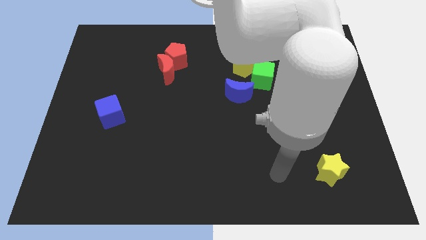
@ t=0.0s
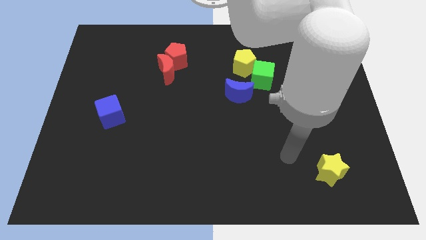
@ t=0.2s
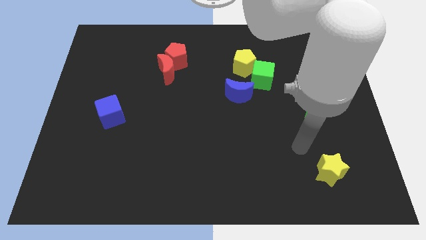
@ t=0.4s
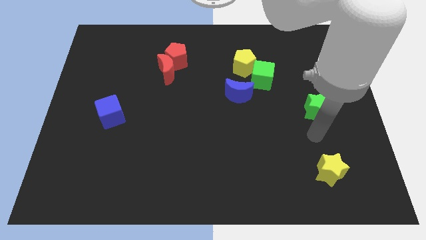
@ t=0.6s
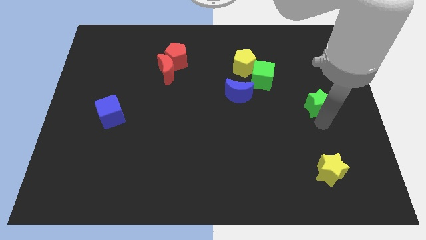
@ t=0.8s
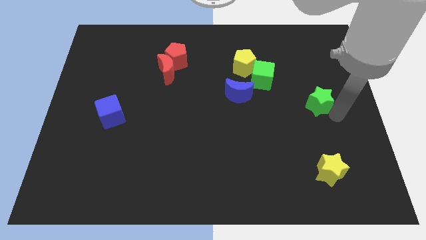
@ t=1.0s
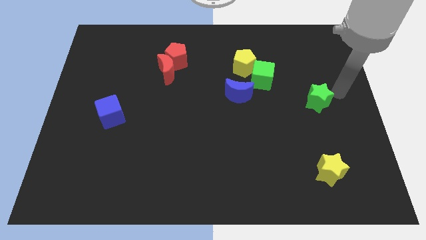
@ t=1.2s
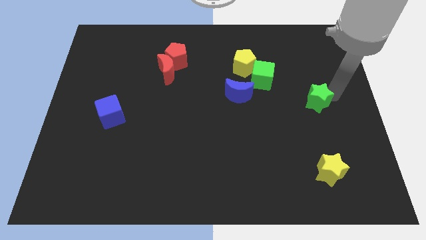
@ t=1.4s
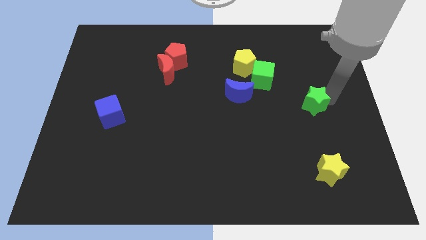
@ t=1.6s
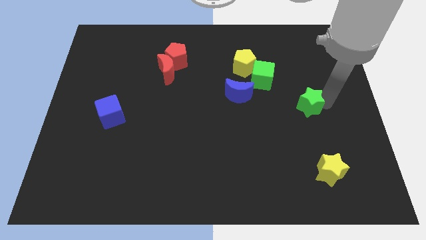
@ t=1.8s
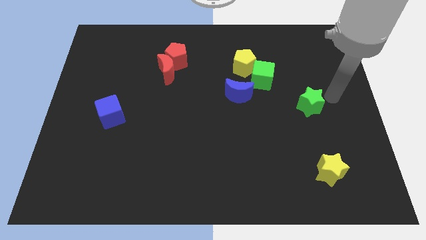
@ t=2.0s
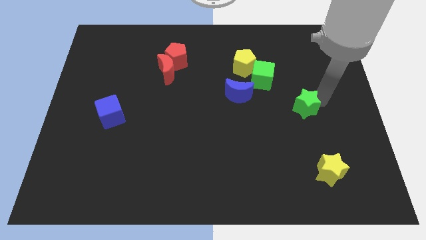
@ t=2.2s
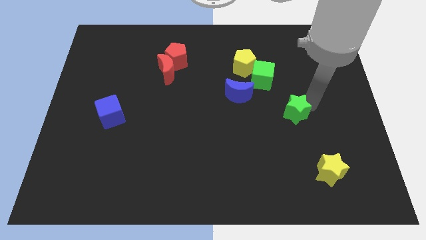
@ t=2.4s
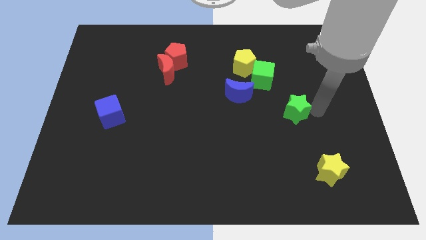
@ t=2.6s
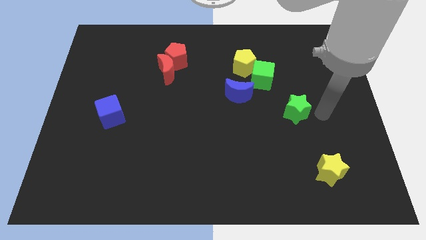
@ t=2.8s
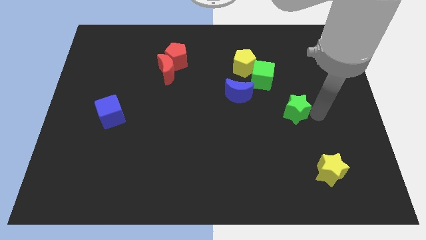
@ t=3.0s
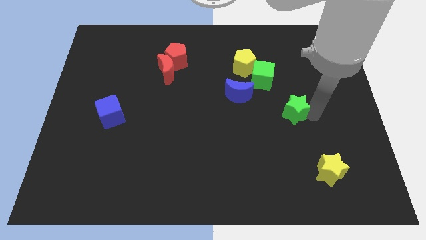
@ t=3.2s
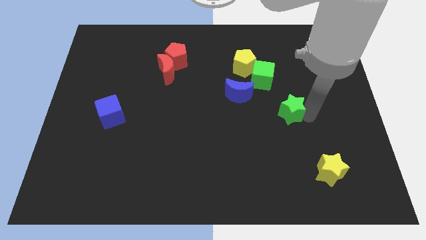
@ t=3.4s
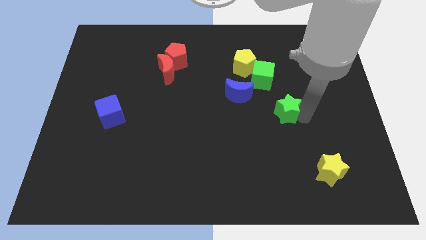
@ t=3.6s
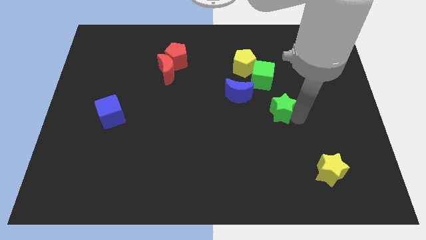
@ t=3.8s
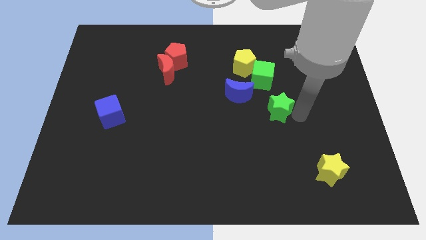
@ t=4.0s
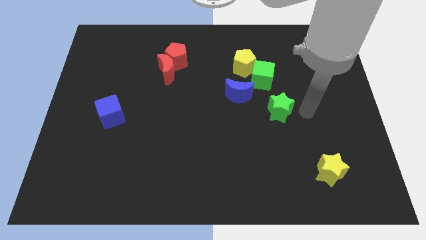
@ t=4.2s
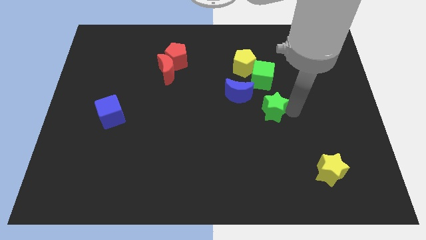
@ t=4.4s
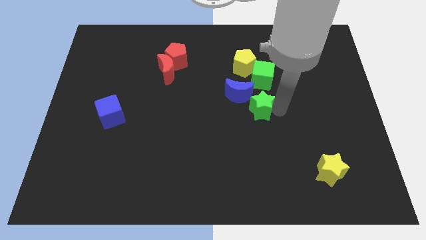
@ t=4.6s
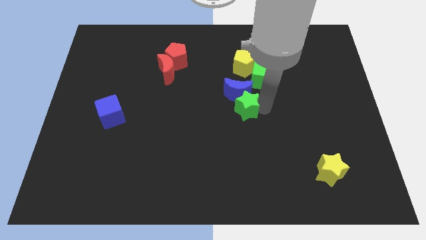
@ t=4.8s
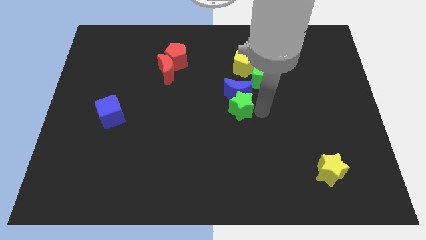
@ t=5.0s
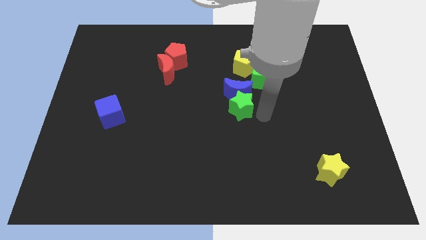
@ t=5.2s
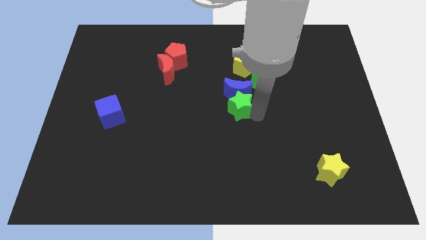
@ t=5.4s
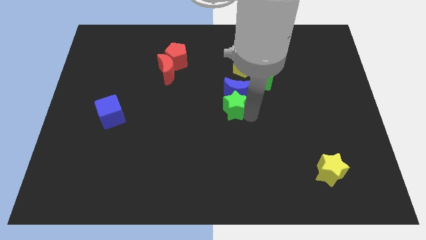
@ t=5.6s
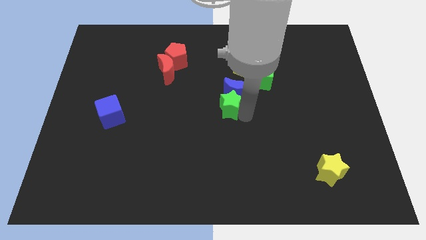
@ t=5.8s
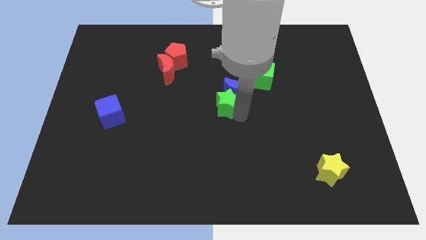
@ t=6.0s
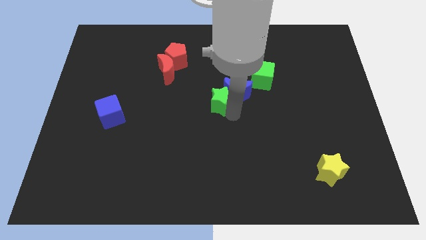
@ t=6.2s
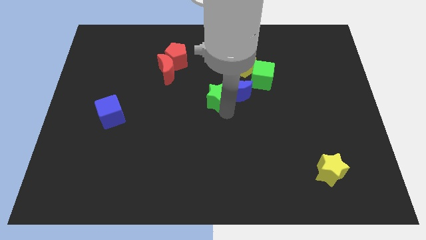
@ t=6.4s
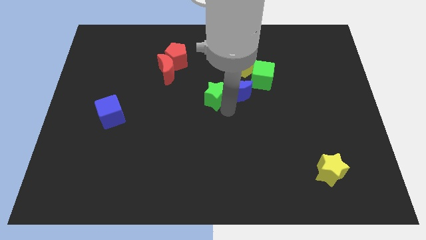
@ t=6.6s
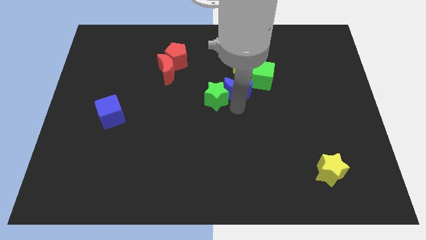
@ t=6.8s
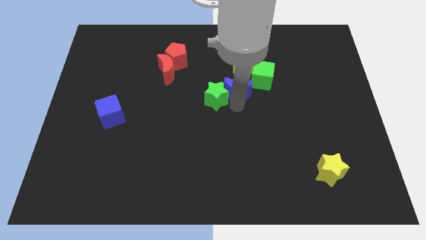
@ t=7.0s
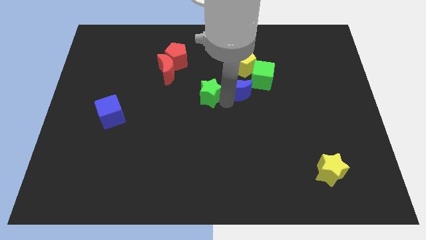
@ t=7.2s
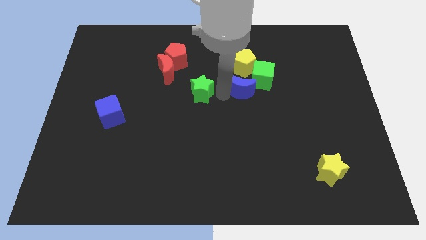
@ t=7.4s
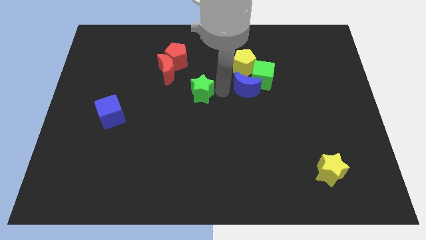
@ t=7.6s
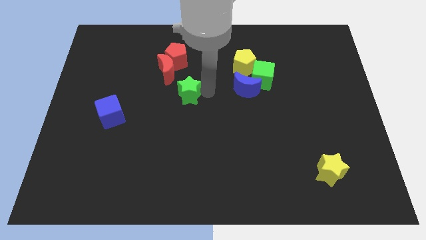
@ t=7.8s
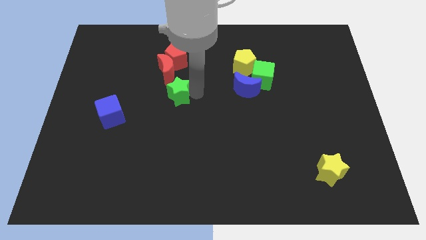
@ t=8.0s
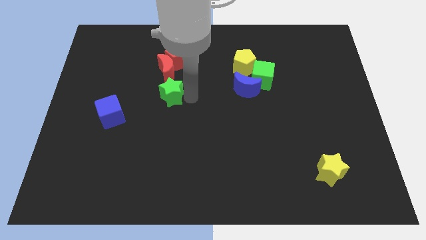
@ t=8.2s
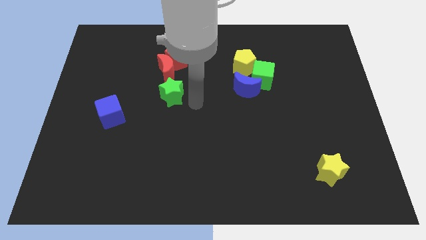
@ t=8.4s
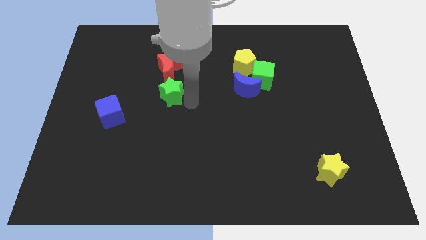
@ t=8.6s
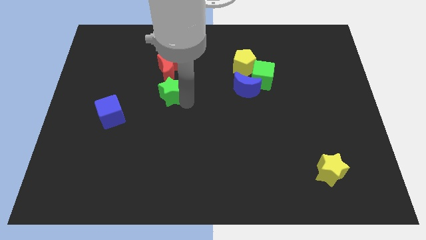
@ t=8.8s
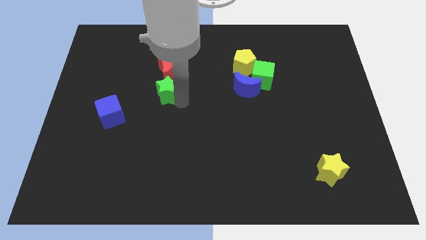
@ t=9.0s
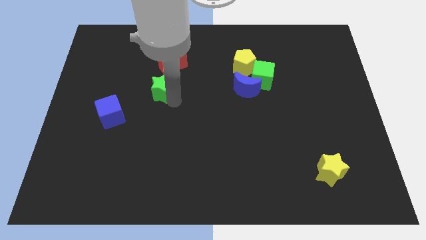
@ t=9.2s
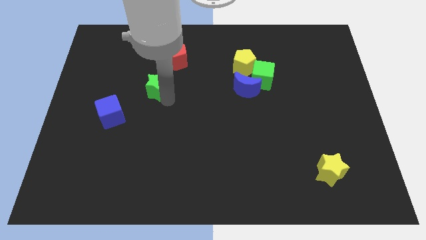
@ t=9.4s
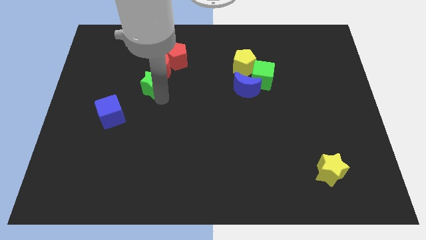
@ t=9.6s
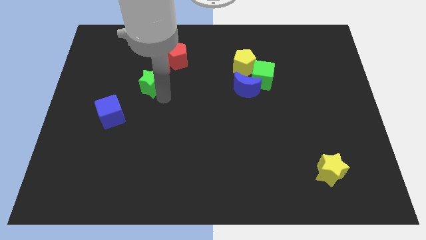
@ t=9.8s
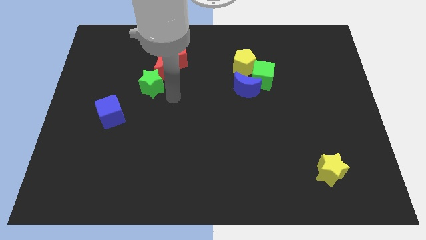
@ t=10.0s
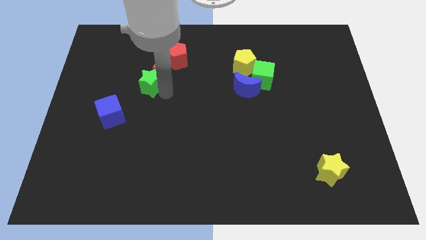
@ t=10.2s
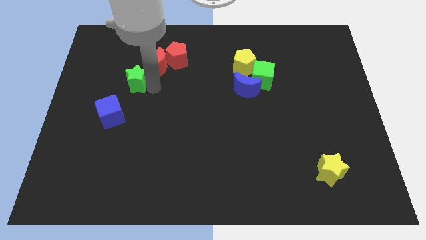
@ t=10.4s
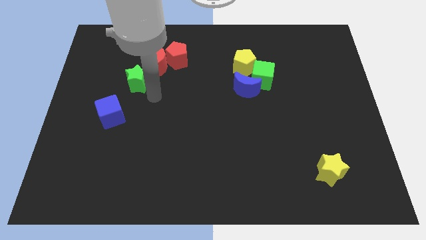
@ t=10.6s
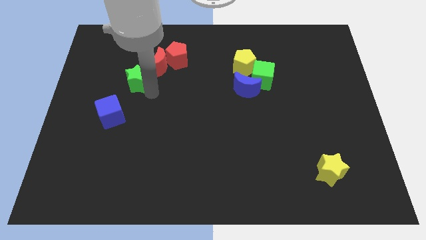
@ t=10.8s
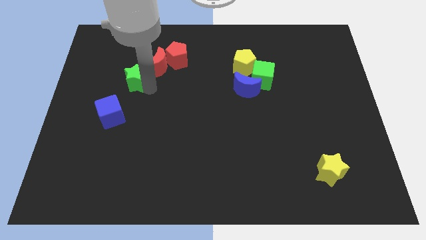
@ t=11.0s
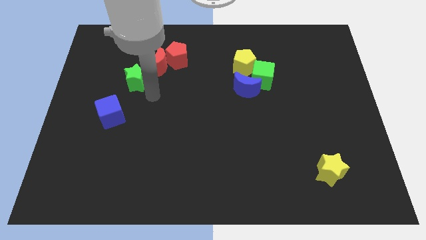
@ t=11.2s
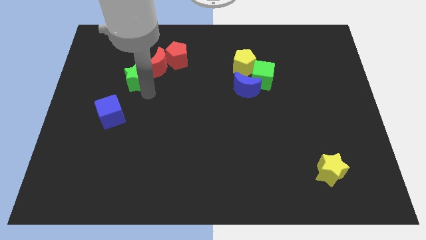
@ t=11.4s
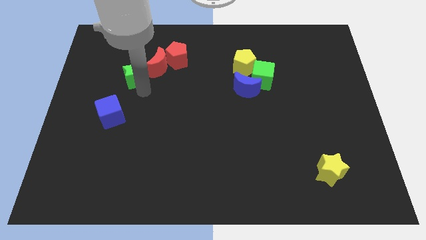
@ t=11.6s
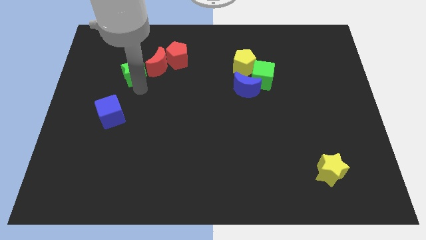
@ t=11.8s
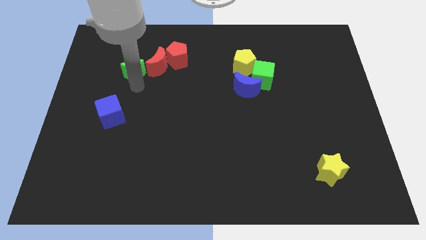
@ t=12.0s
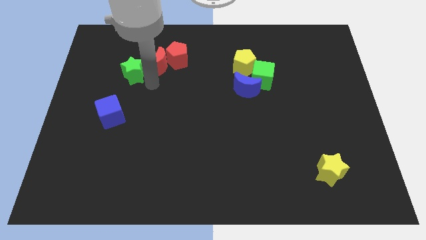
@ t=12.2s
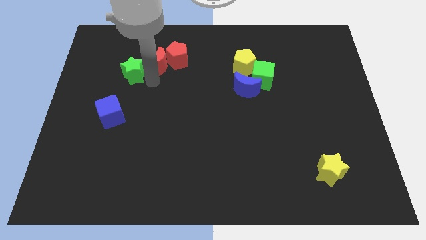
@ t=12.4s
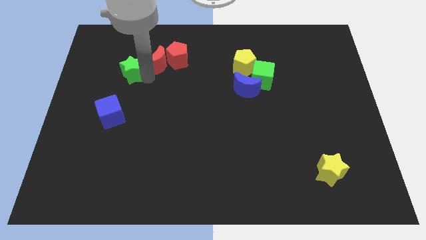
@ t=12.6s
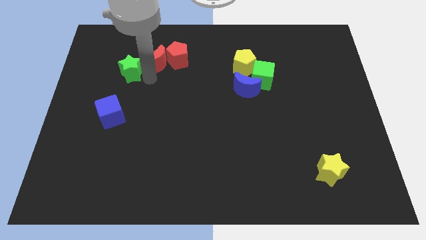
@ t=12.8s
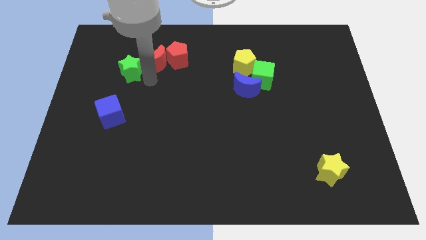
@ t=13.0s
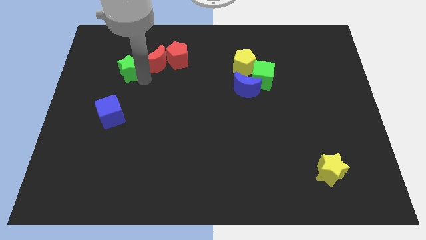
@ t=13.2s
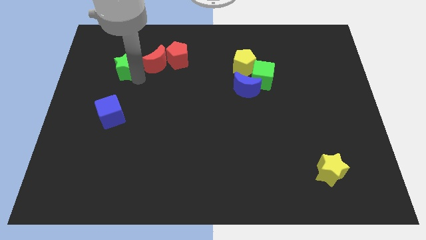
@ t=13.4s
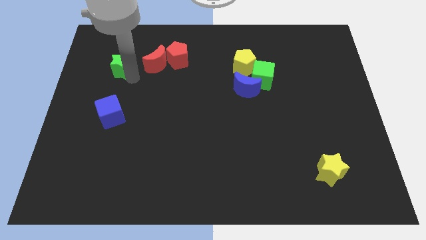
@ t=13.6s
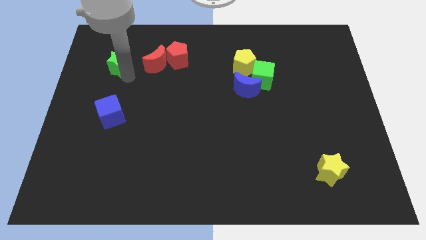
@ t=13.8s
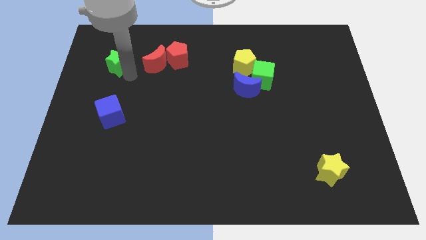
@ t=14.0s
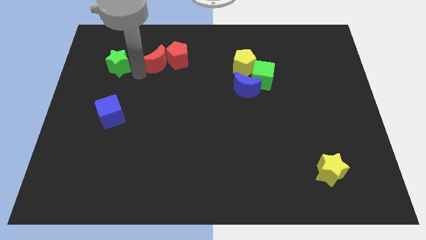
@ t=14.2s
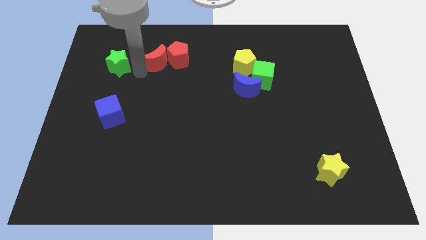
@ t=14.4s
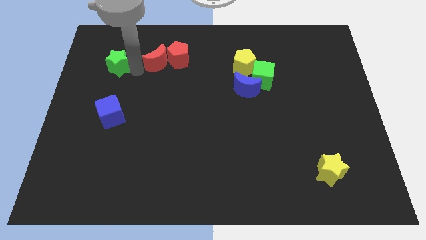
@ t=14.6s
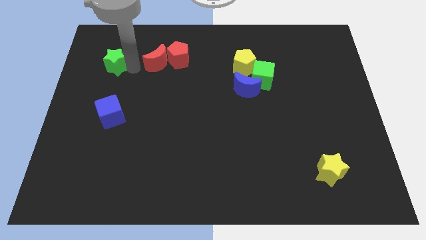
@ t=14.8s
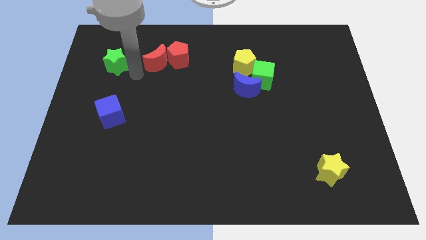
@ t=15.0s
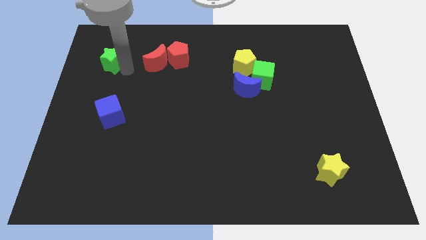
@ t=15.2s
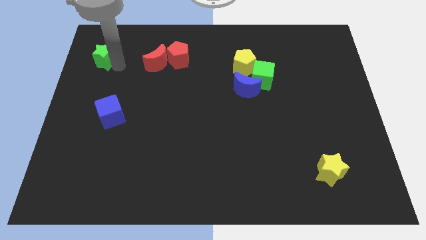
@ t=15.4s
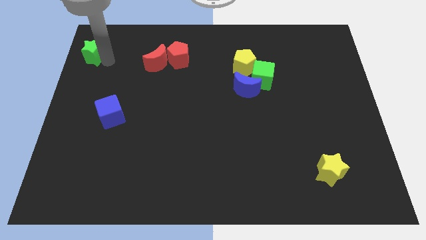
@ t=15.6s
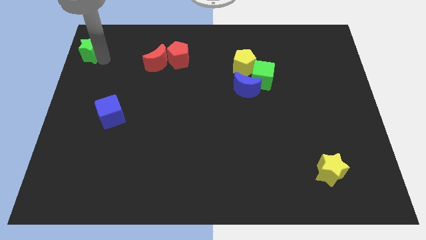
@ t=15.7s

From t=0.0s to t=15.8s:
move the green star to the upper left corner
